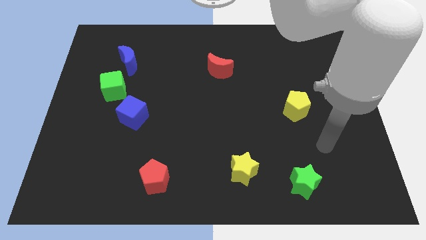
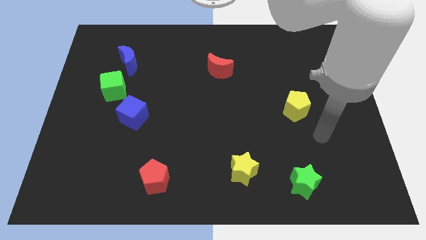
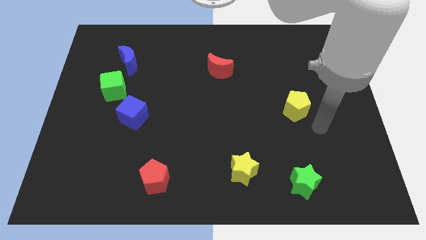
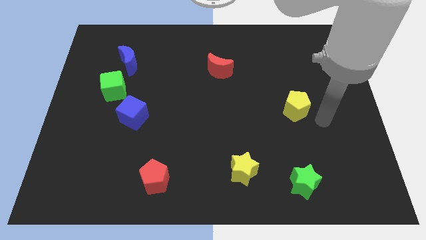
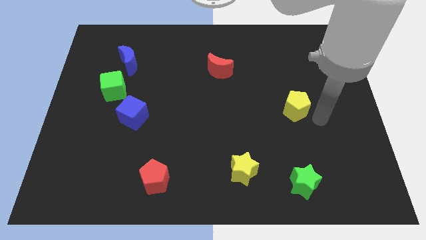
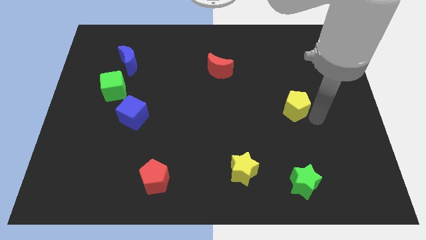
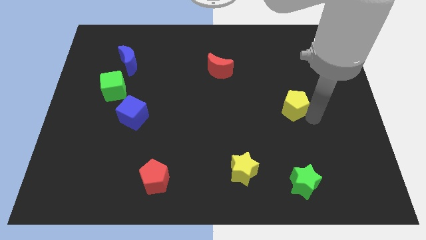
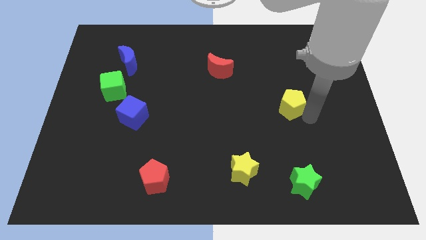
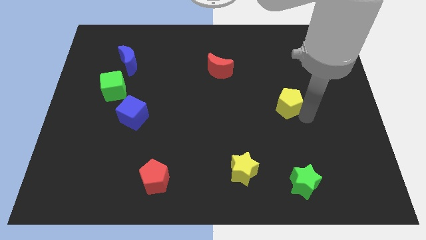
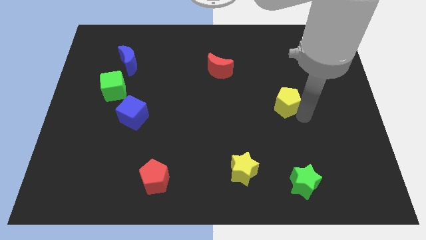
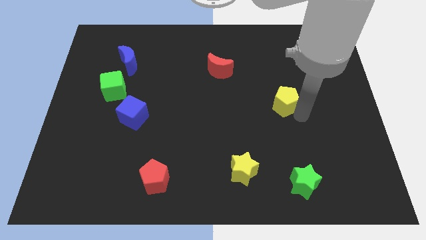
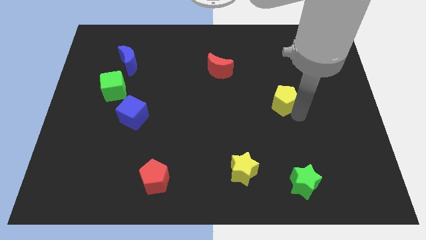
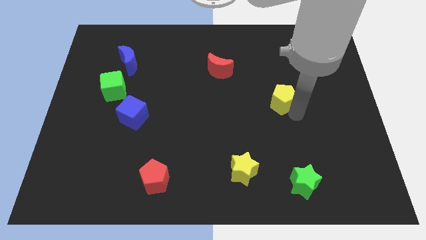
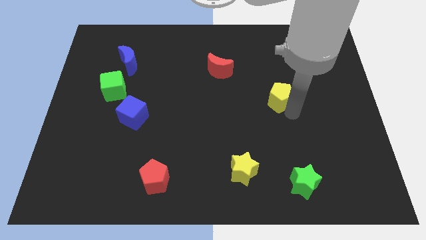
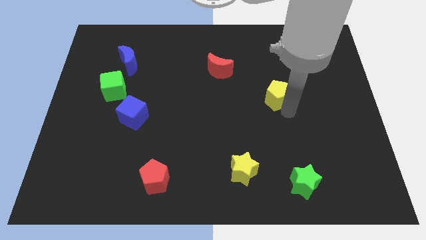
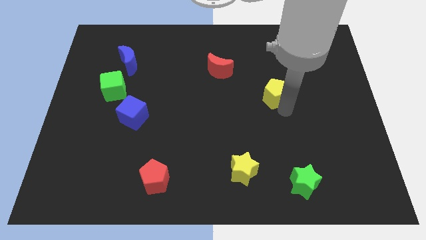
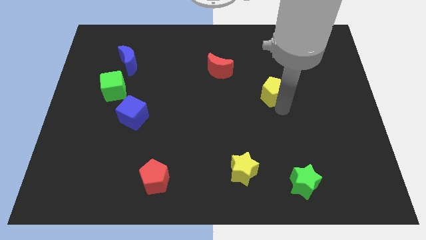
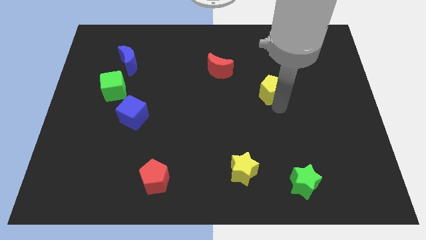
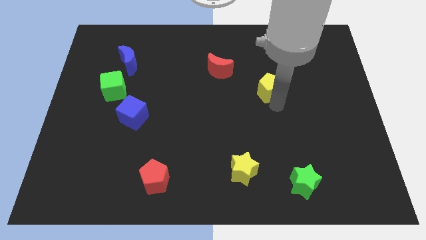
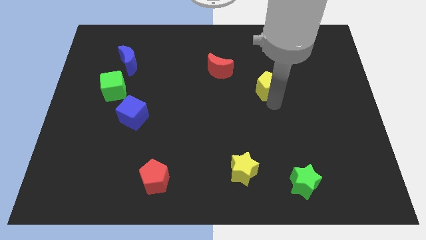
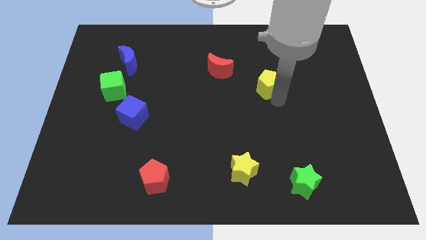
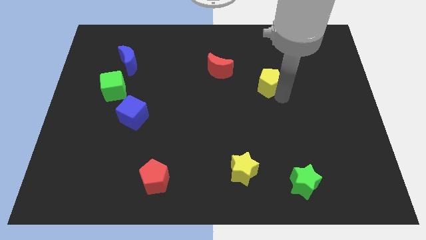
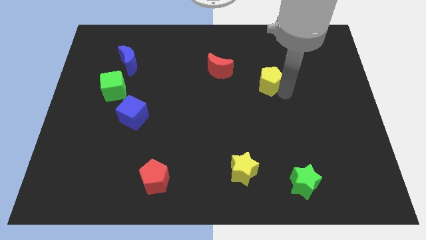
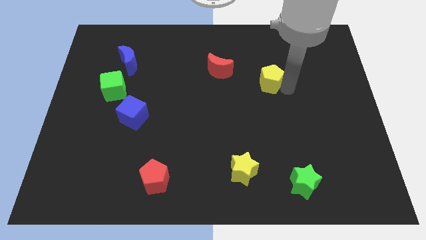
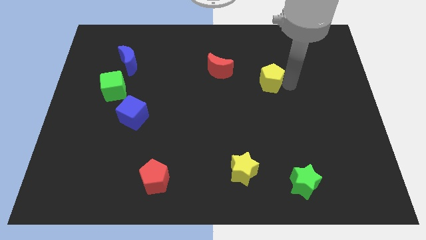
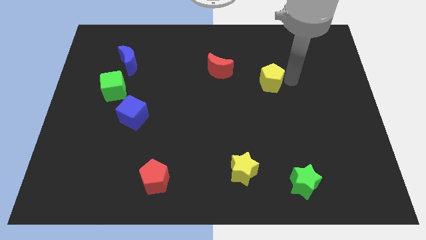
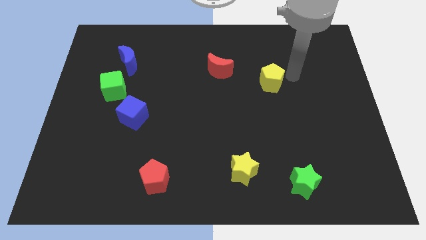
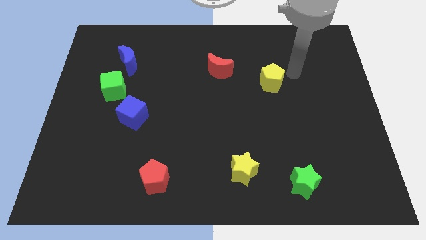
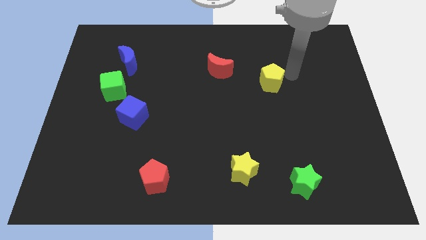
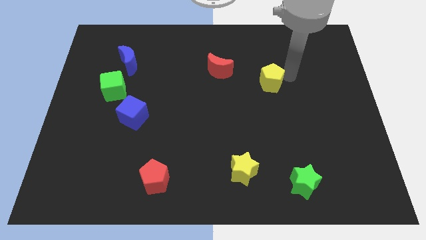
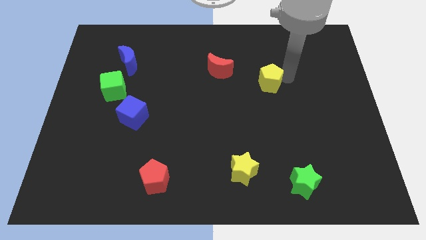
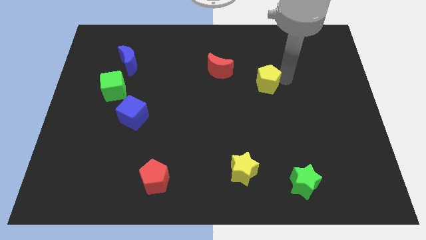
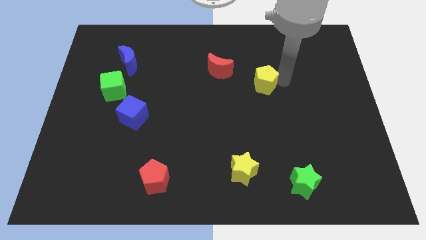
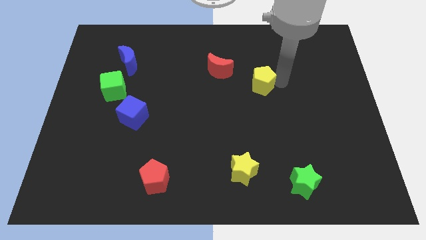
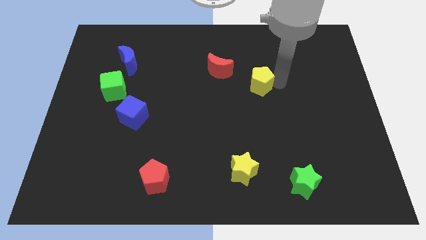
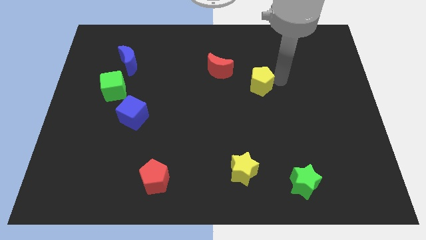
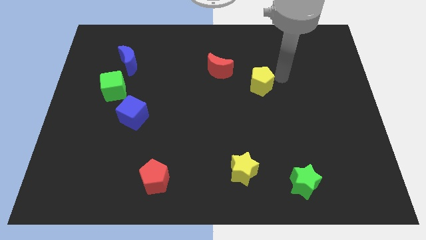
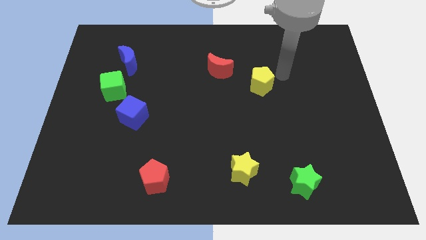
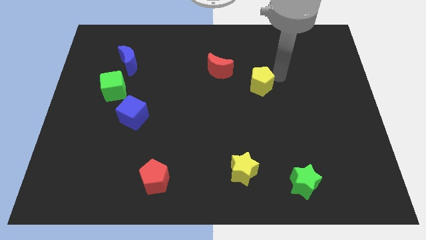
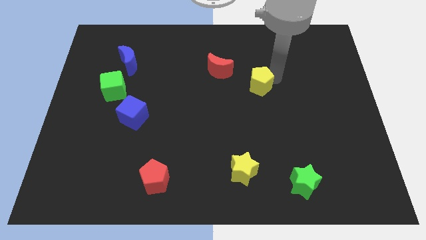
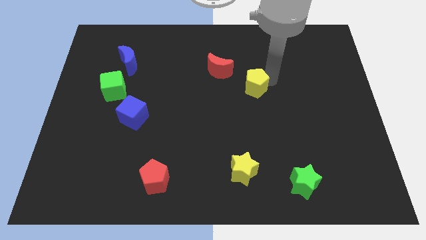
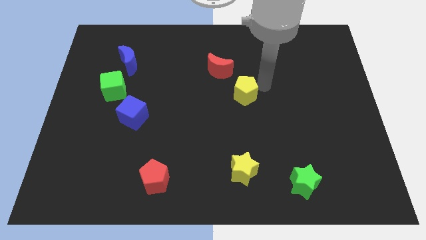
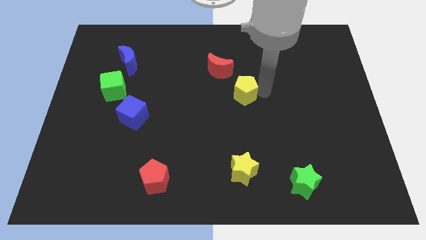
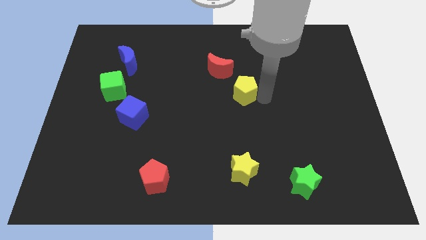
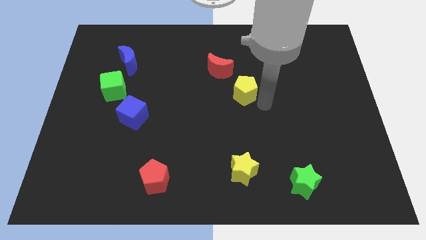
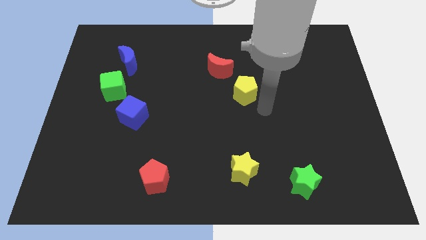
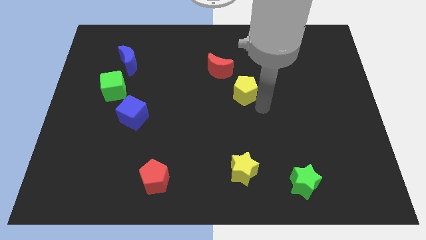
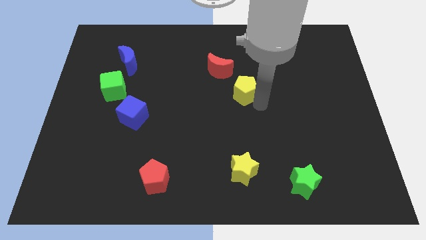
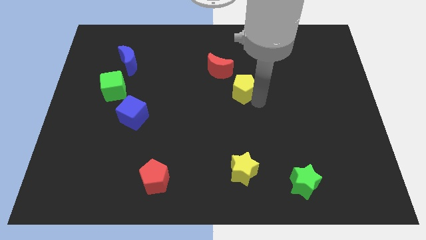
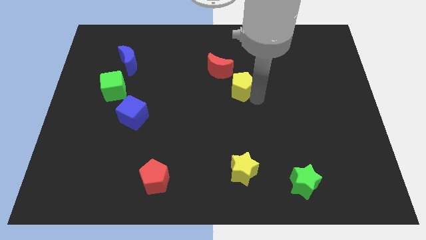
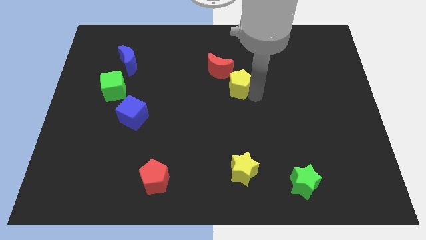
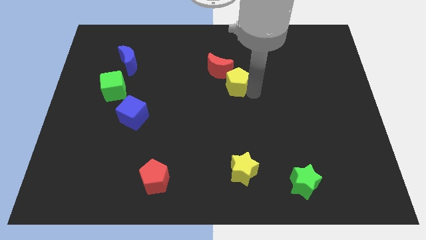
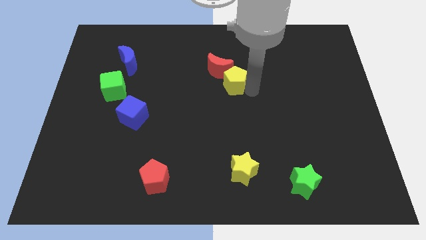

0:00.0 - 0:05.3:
slide the yellow pentagon towards the red moon

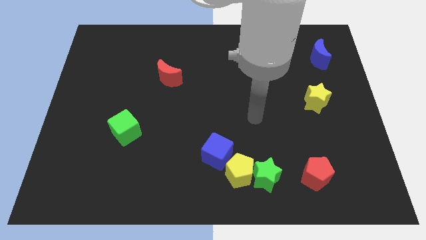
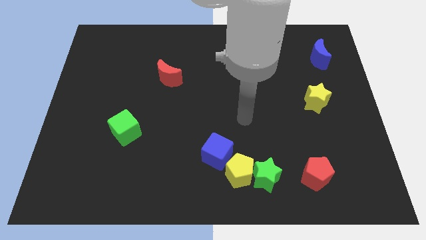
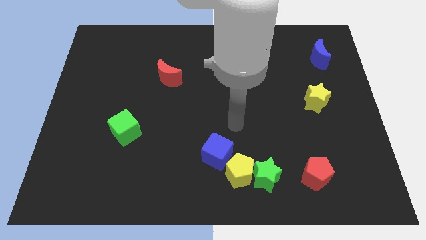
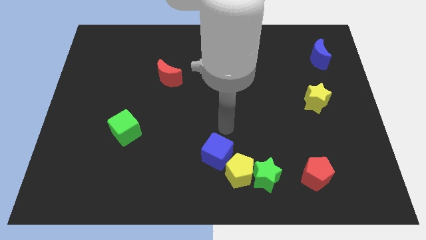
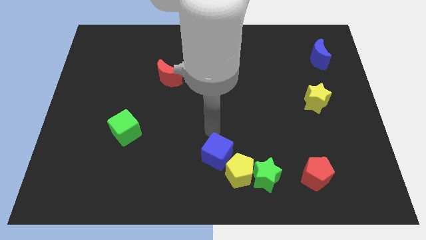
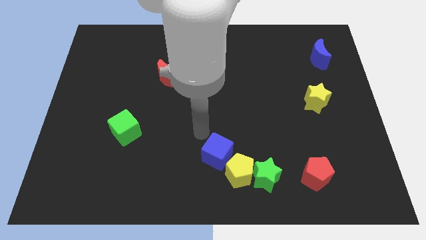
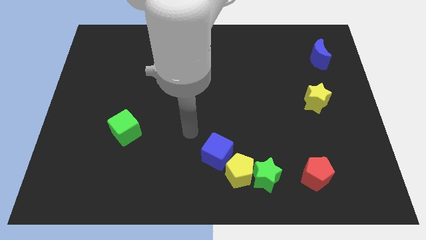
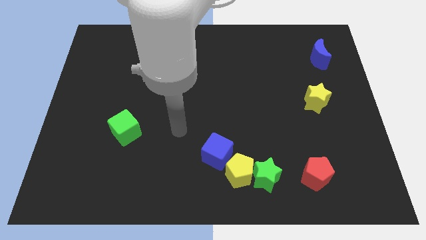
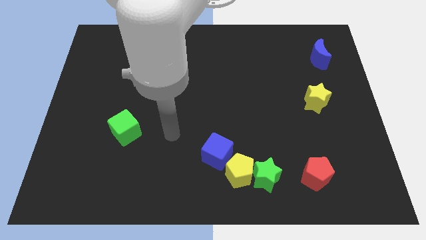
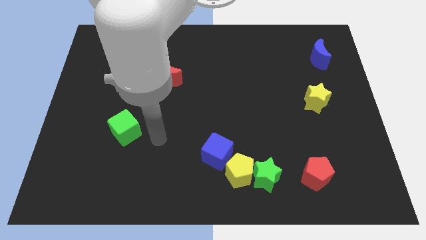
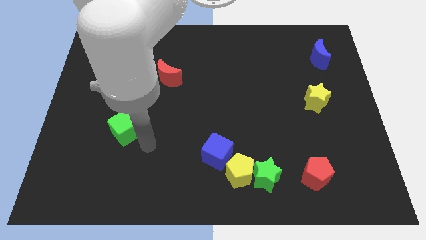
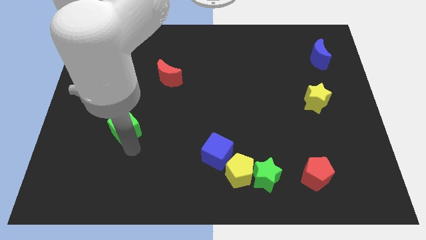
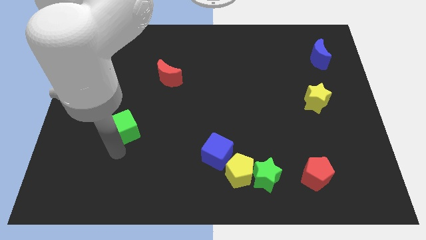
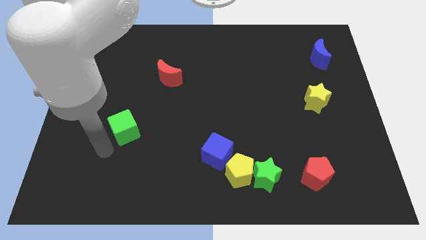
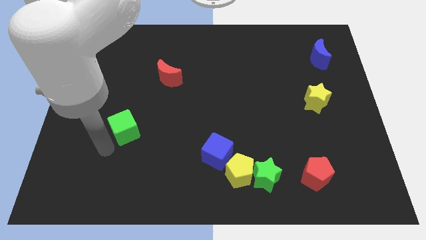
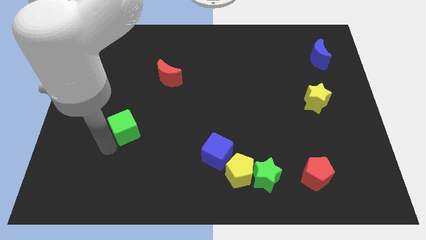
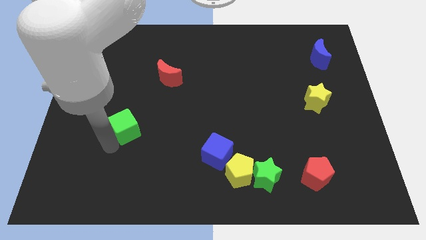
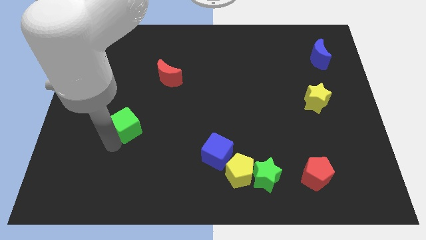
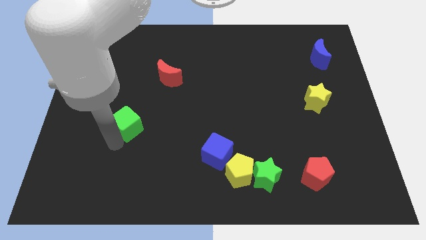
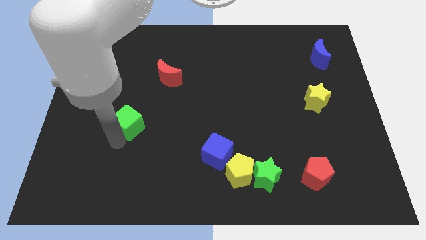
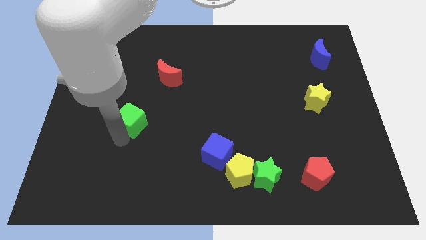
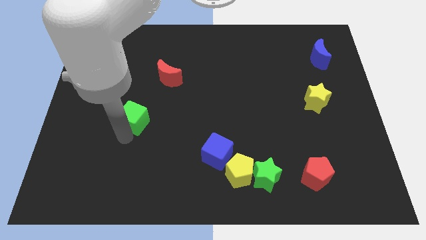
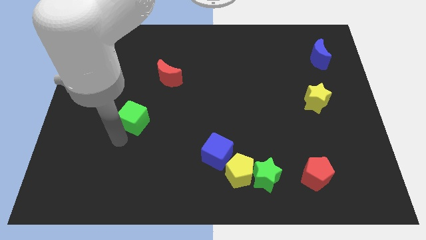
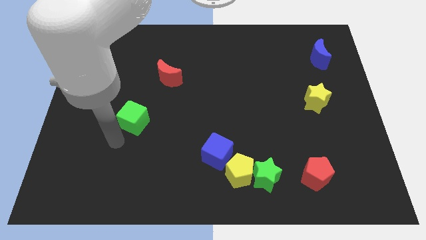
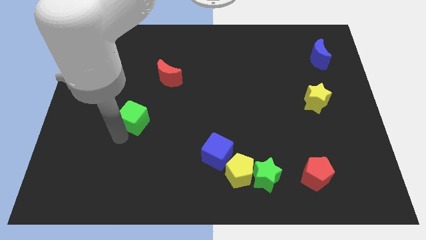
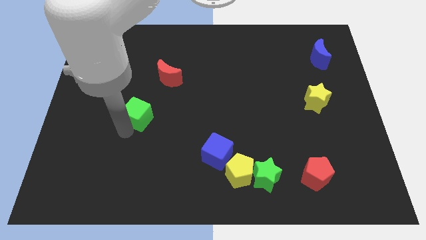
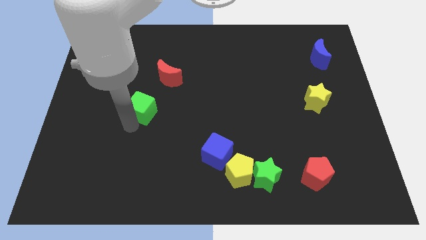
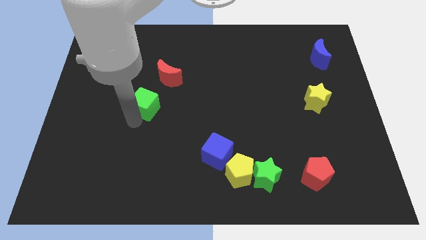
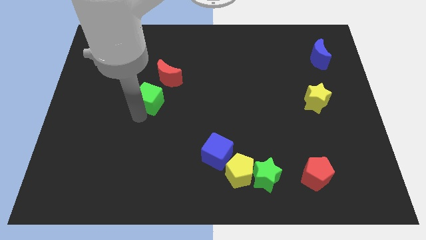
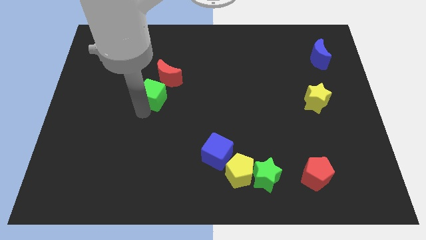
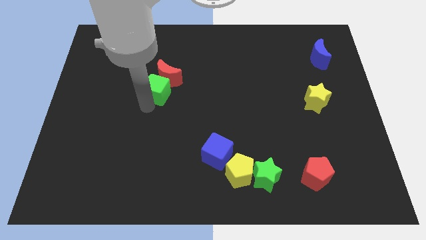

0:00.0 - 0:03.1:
move the green cube close to the red moon
